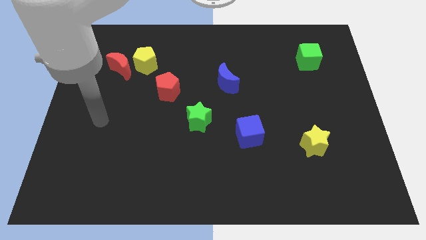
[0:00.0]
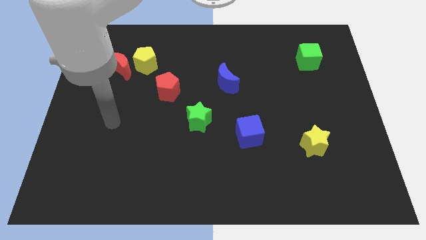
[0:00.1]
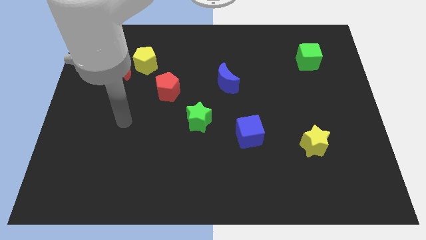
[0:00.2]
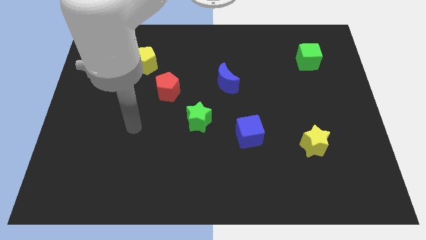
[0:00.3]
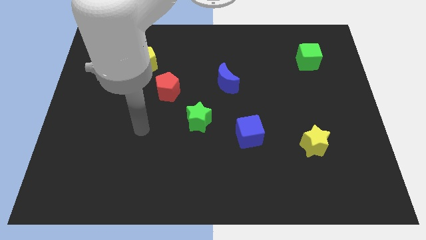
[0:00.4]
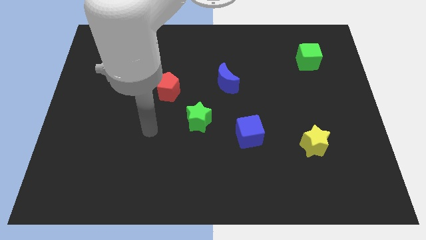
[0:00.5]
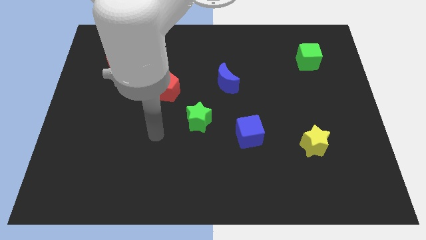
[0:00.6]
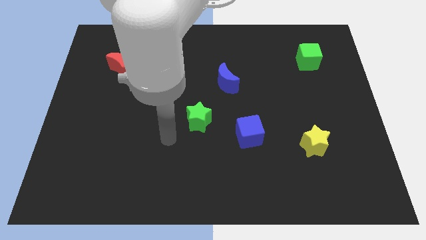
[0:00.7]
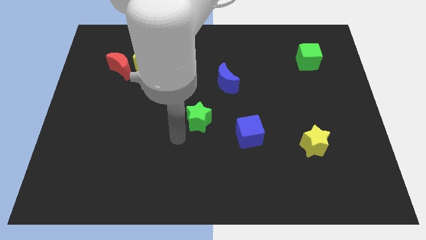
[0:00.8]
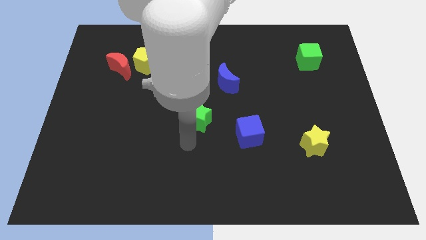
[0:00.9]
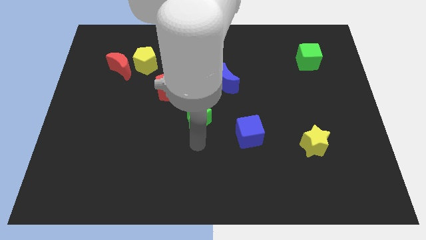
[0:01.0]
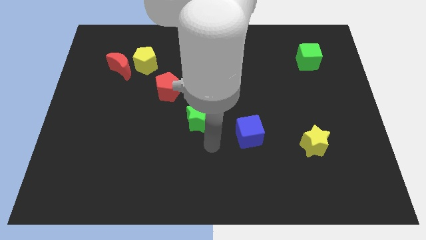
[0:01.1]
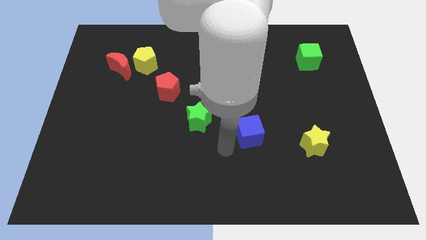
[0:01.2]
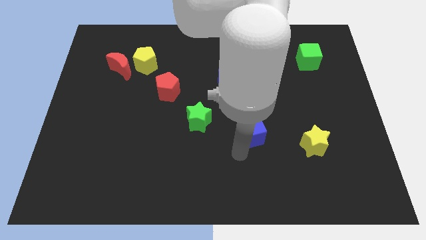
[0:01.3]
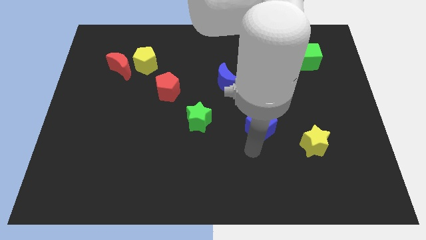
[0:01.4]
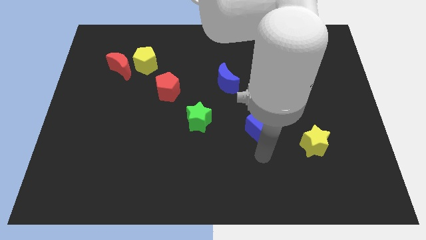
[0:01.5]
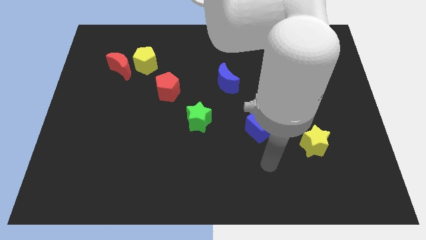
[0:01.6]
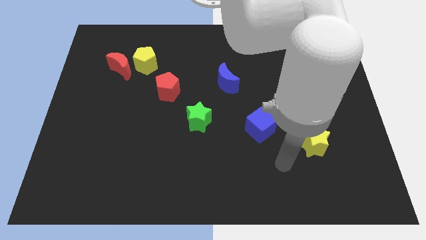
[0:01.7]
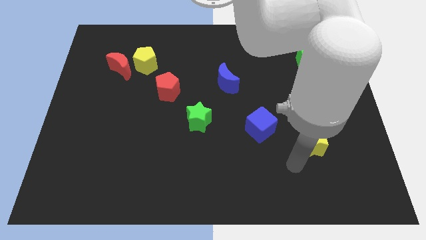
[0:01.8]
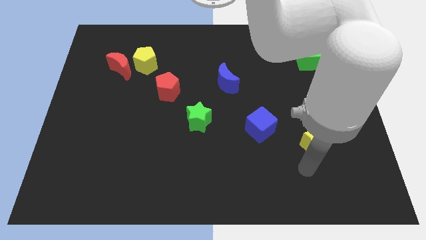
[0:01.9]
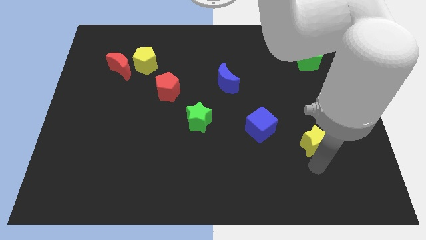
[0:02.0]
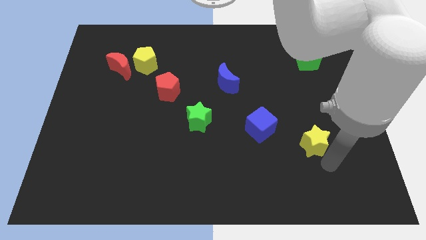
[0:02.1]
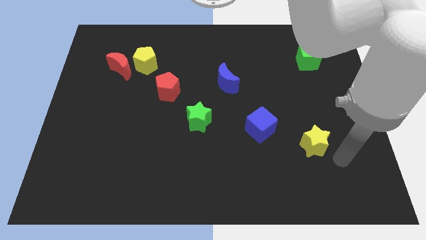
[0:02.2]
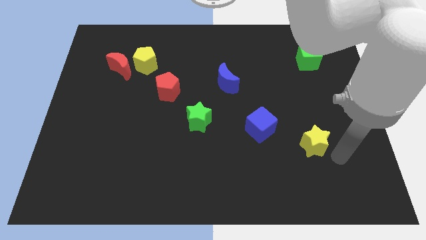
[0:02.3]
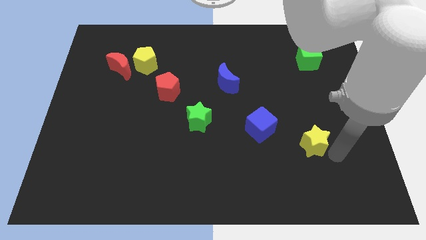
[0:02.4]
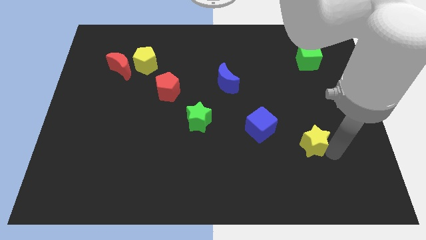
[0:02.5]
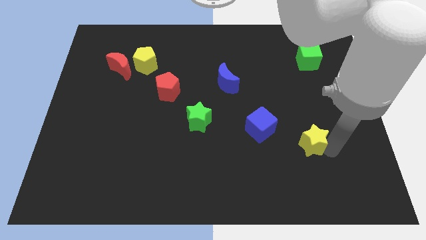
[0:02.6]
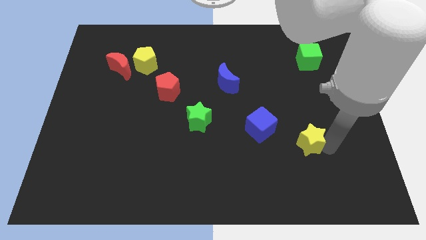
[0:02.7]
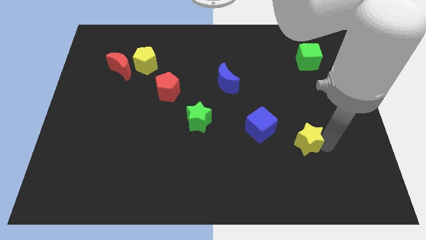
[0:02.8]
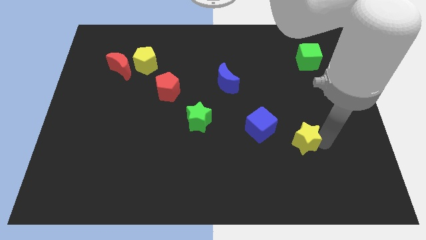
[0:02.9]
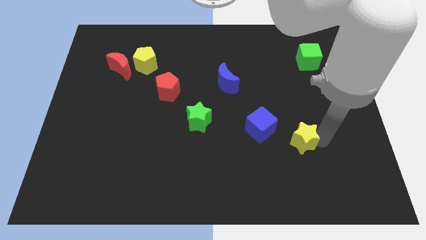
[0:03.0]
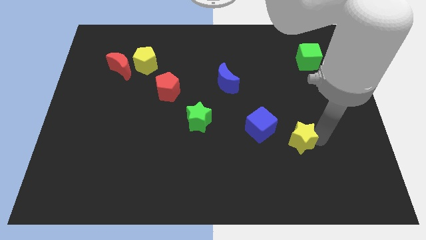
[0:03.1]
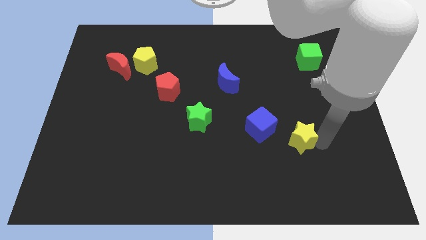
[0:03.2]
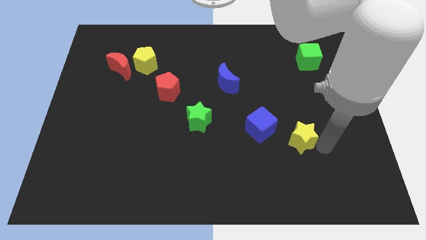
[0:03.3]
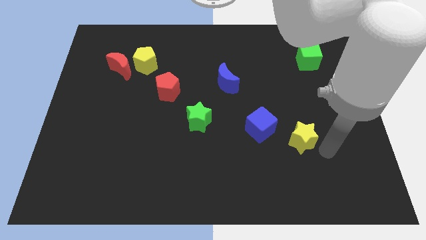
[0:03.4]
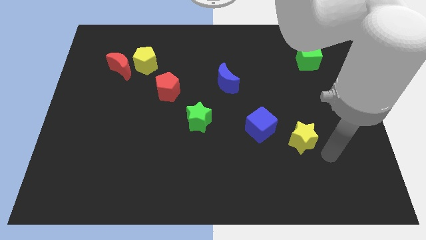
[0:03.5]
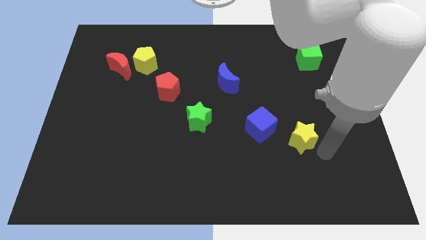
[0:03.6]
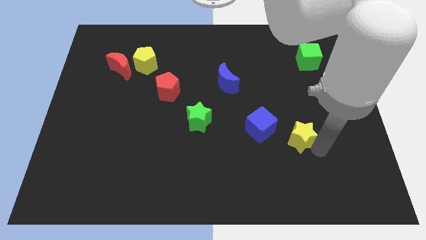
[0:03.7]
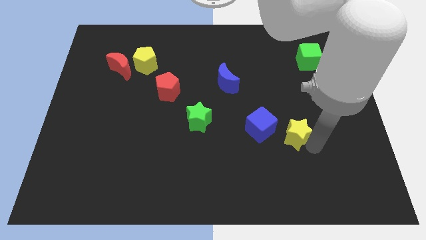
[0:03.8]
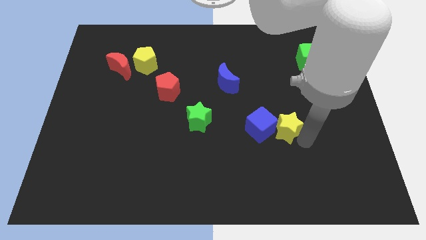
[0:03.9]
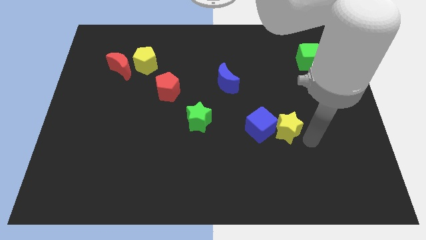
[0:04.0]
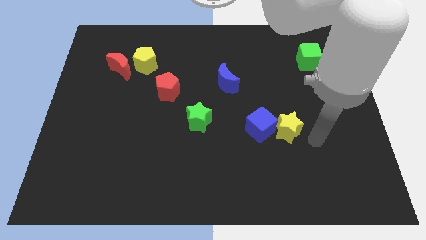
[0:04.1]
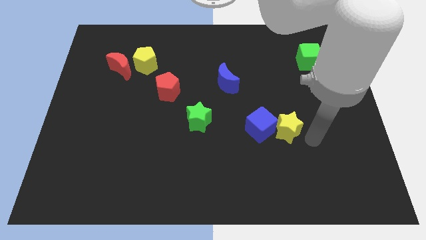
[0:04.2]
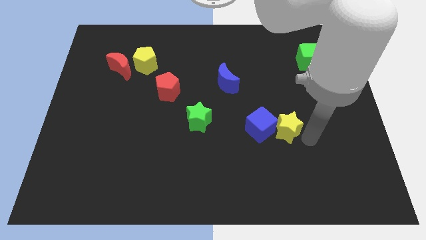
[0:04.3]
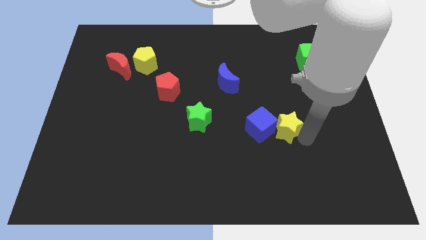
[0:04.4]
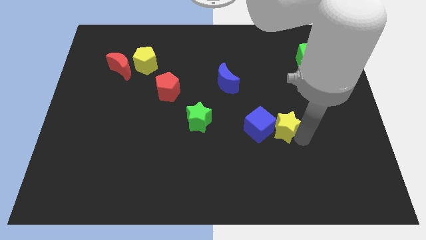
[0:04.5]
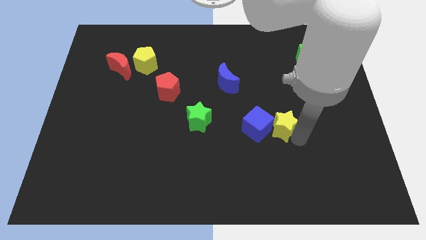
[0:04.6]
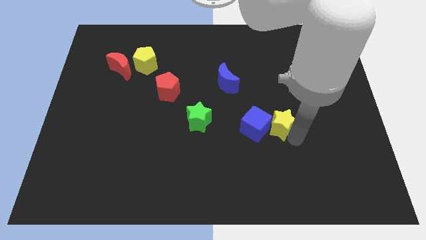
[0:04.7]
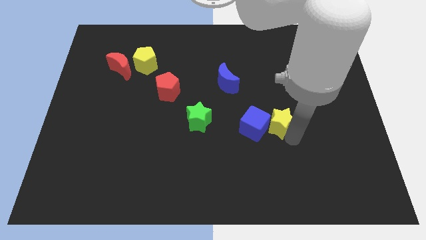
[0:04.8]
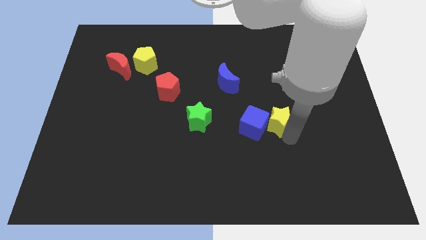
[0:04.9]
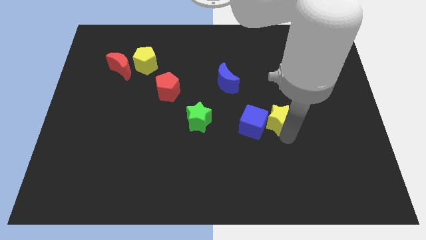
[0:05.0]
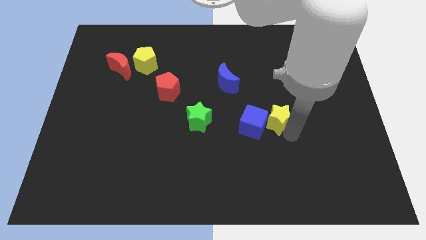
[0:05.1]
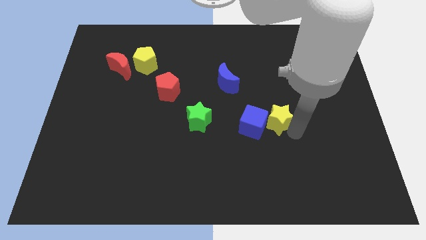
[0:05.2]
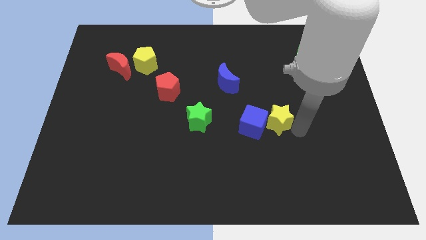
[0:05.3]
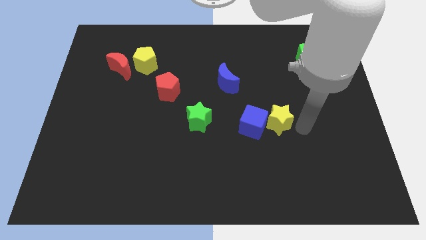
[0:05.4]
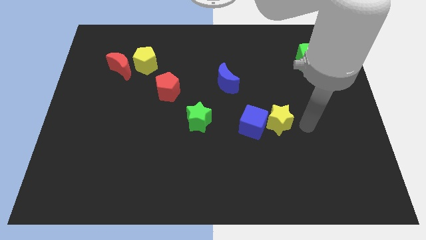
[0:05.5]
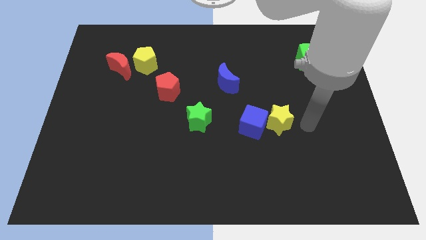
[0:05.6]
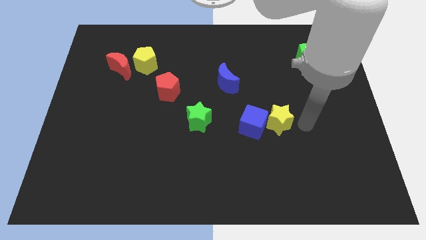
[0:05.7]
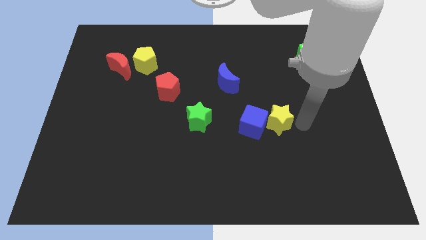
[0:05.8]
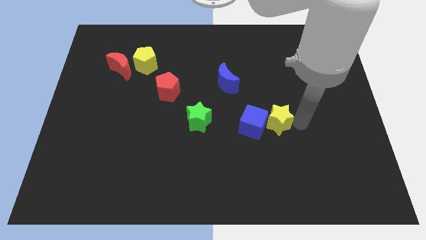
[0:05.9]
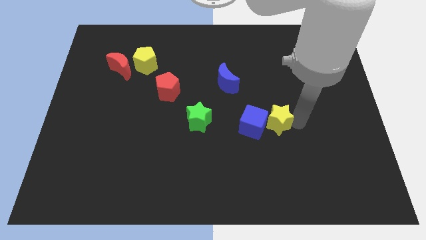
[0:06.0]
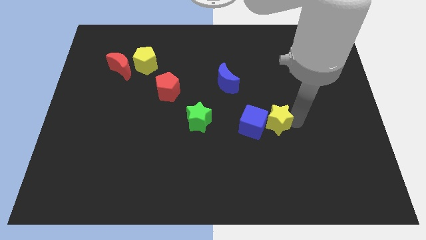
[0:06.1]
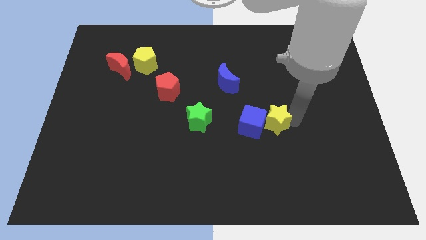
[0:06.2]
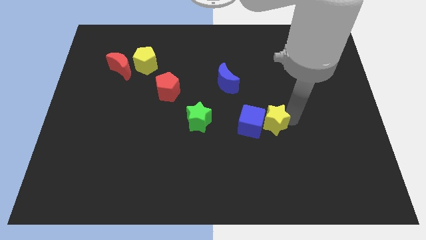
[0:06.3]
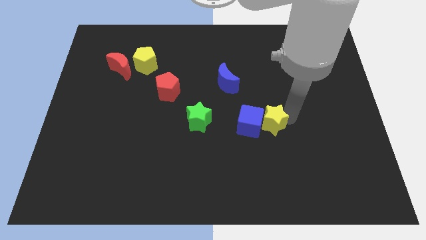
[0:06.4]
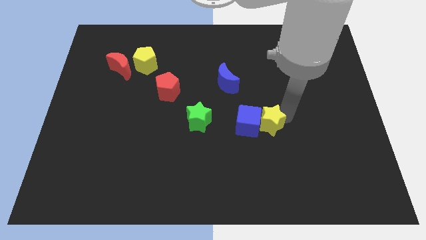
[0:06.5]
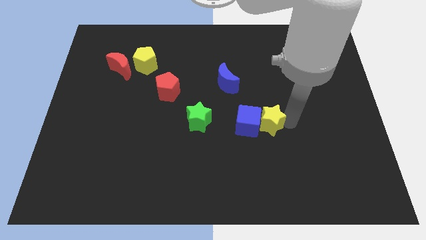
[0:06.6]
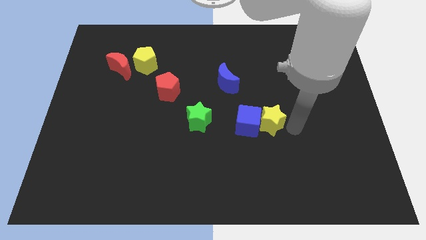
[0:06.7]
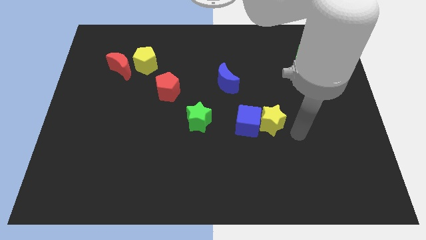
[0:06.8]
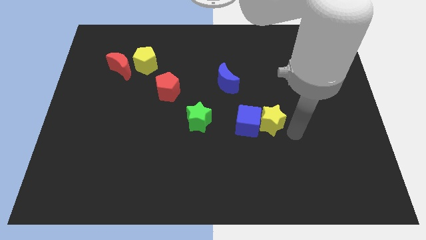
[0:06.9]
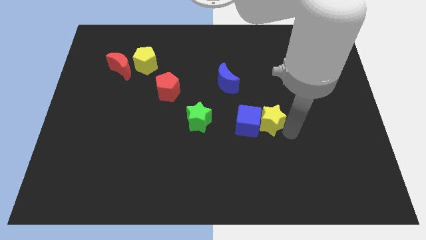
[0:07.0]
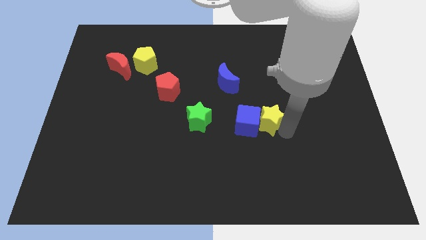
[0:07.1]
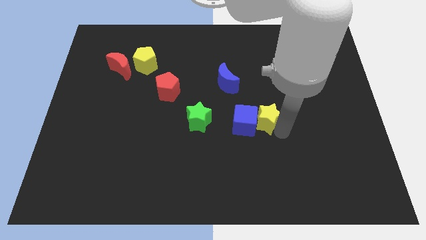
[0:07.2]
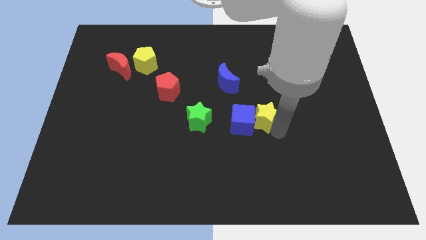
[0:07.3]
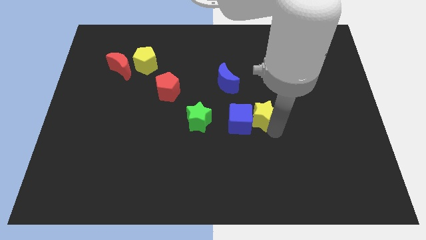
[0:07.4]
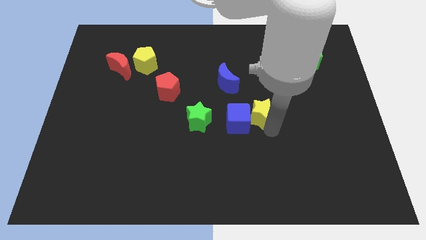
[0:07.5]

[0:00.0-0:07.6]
move the yellow star to the center
